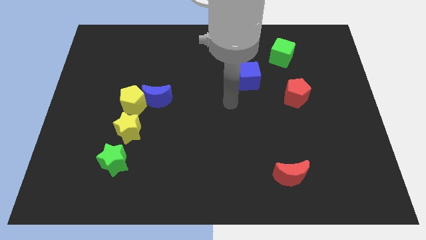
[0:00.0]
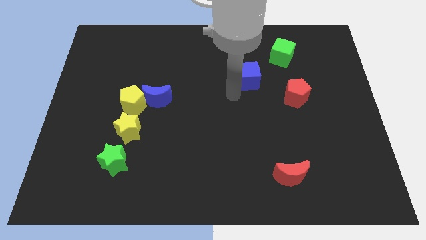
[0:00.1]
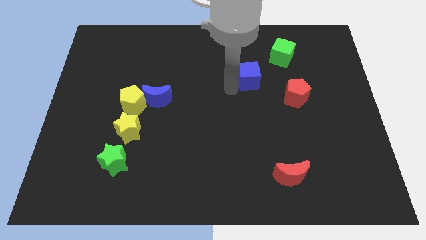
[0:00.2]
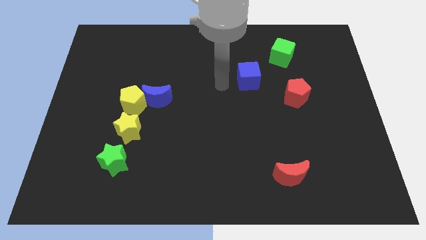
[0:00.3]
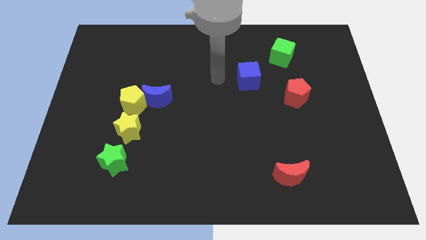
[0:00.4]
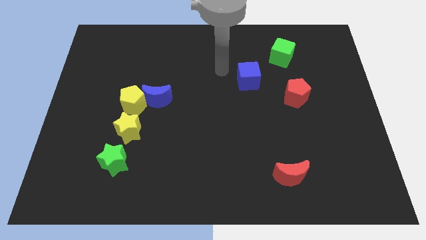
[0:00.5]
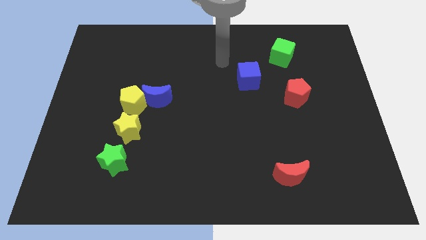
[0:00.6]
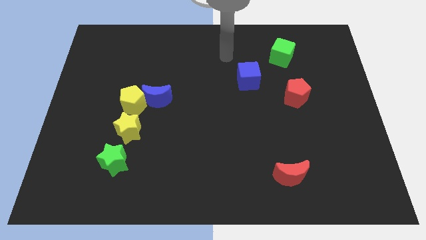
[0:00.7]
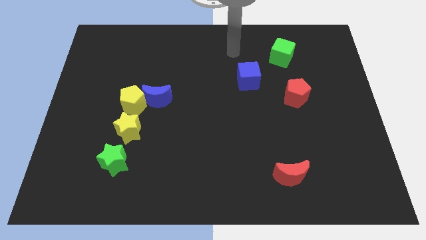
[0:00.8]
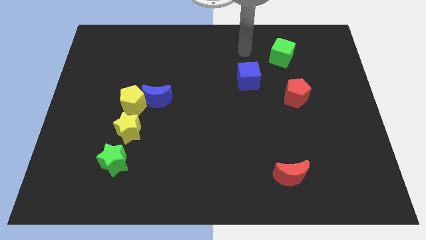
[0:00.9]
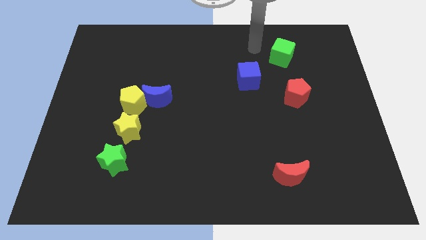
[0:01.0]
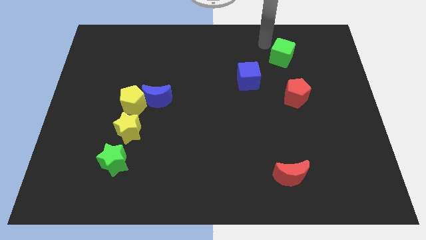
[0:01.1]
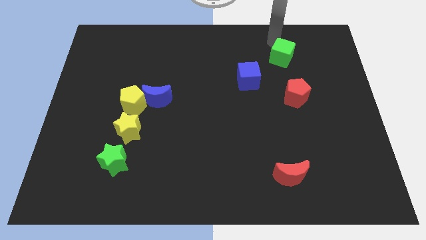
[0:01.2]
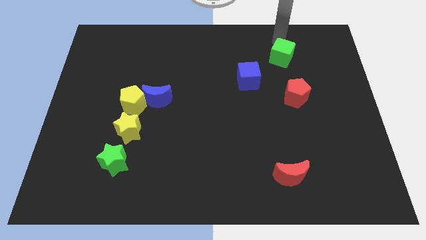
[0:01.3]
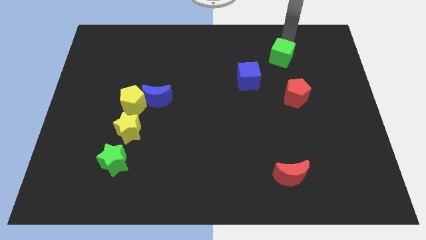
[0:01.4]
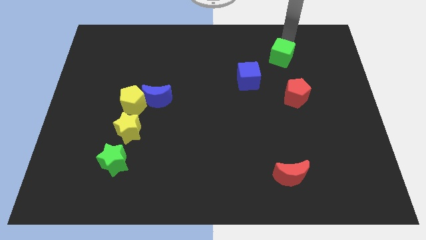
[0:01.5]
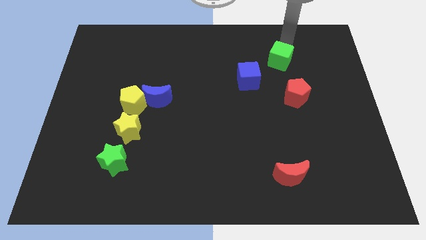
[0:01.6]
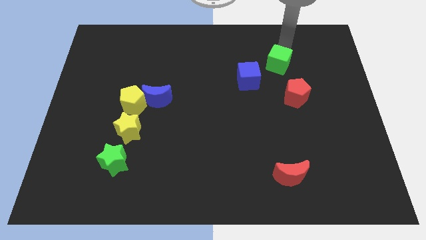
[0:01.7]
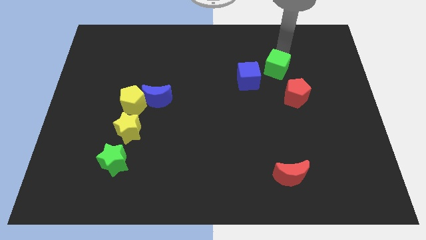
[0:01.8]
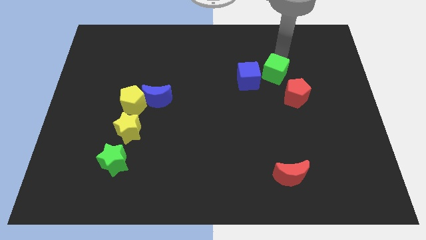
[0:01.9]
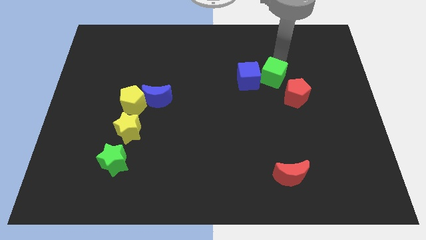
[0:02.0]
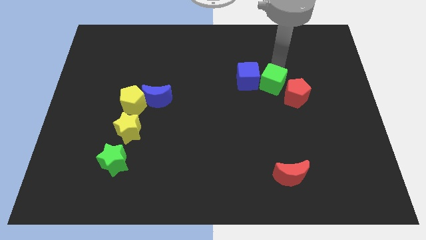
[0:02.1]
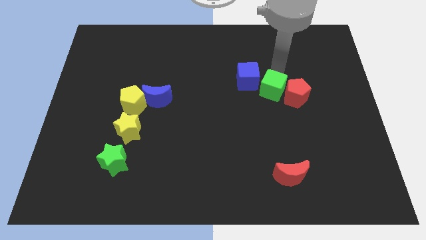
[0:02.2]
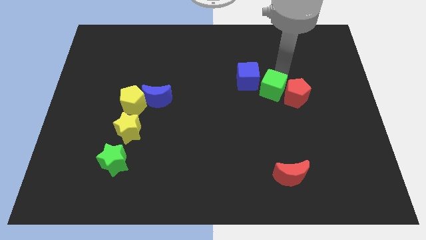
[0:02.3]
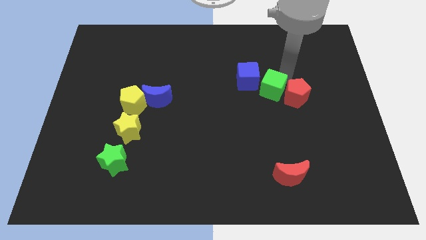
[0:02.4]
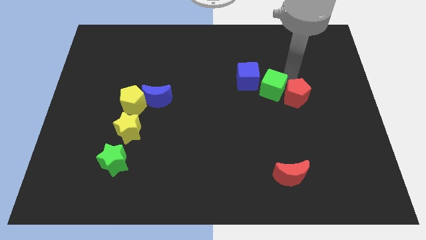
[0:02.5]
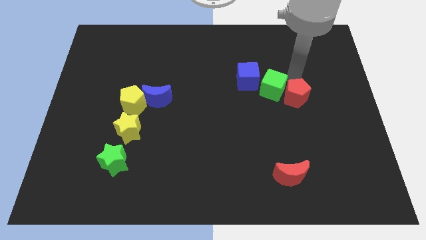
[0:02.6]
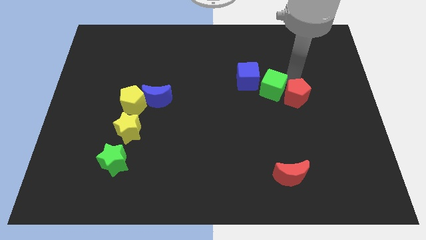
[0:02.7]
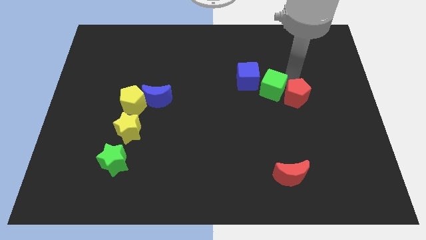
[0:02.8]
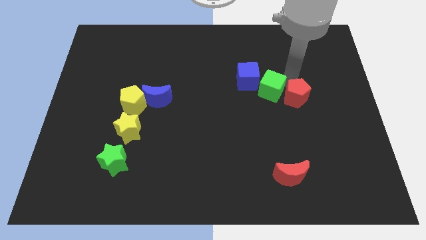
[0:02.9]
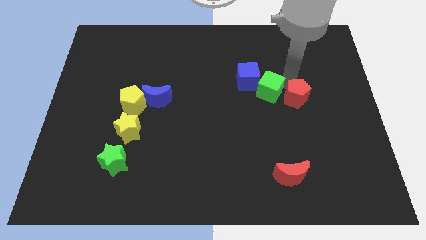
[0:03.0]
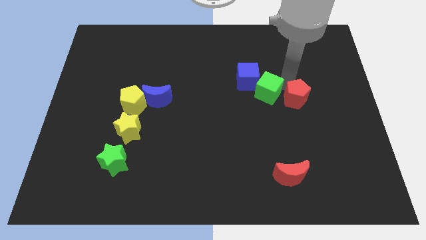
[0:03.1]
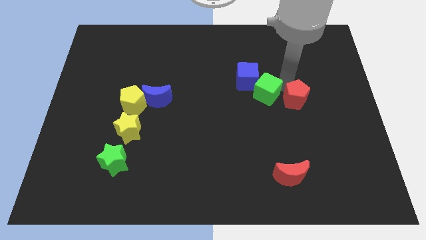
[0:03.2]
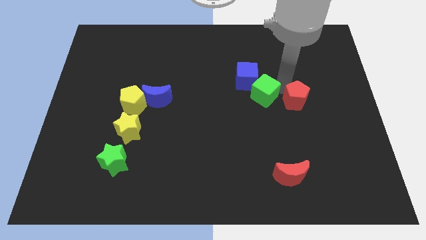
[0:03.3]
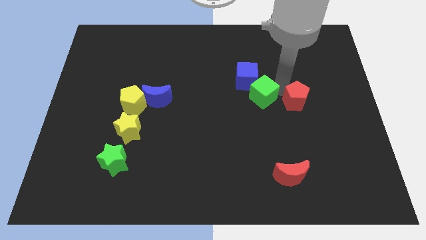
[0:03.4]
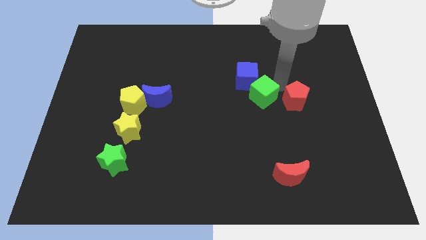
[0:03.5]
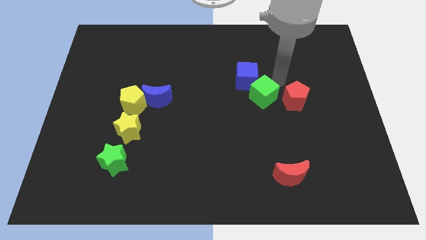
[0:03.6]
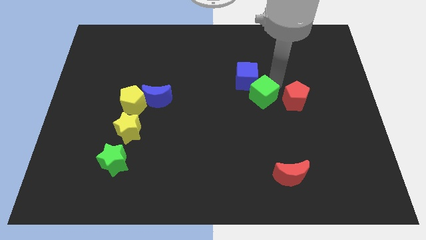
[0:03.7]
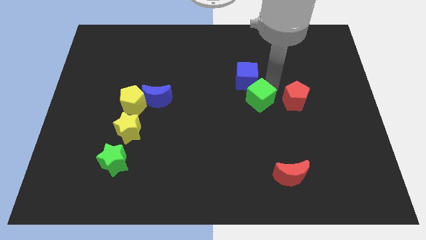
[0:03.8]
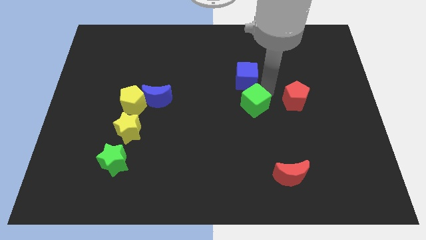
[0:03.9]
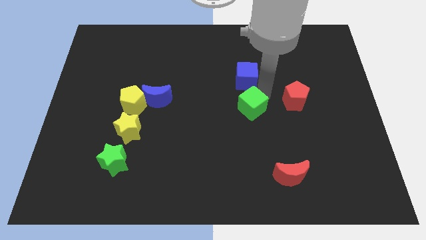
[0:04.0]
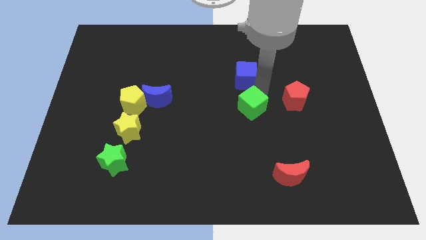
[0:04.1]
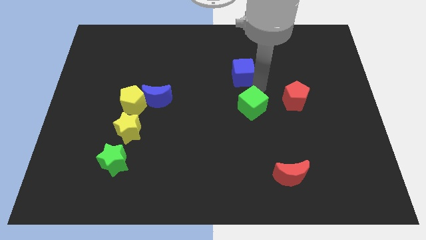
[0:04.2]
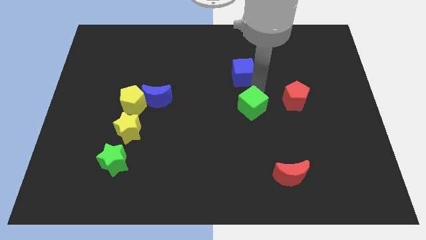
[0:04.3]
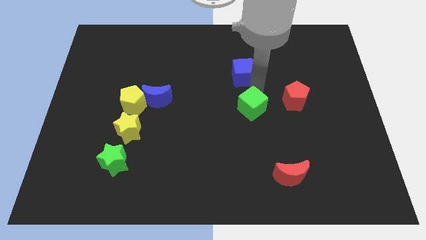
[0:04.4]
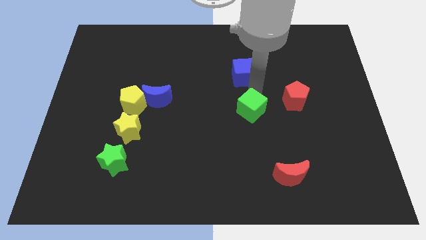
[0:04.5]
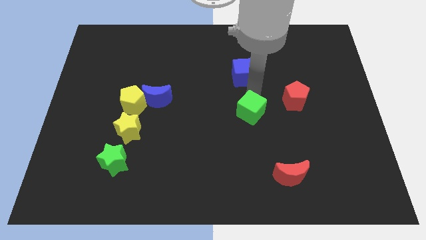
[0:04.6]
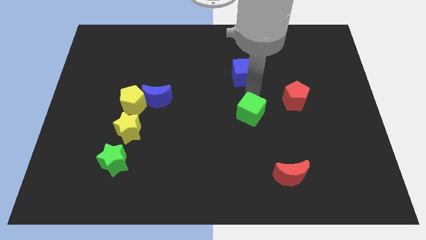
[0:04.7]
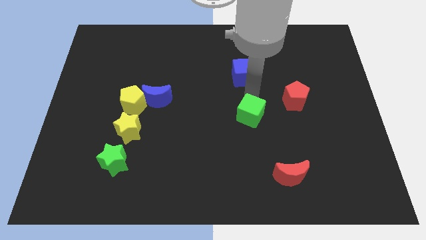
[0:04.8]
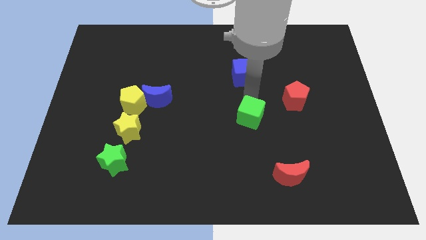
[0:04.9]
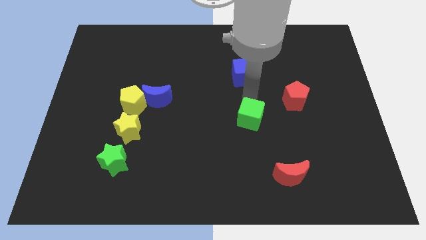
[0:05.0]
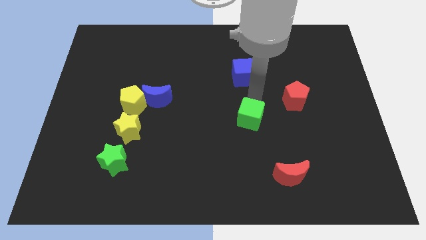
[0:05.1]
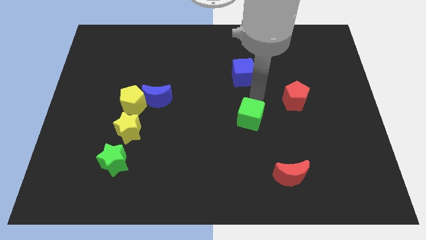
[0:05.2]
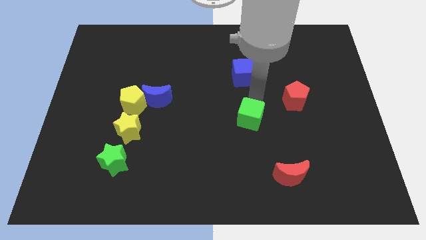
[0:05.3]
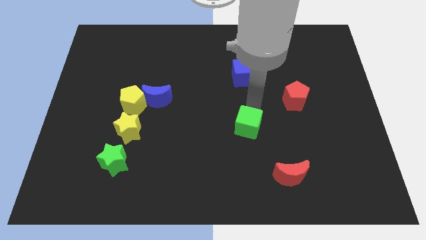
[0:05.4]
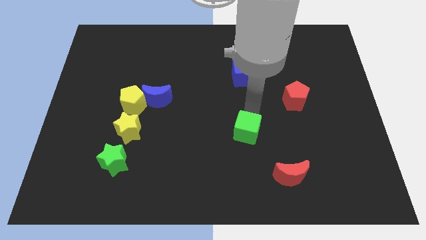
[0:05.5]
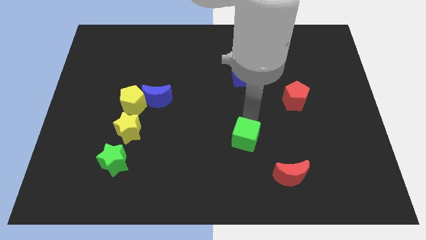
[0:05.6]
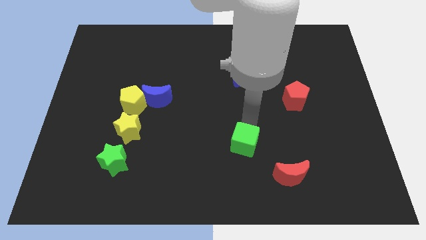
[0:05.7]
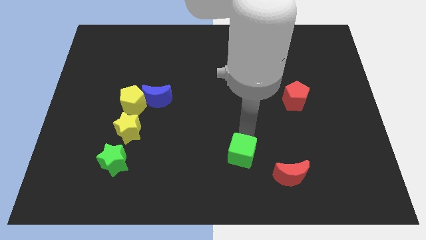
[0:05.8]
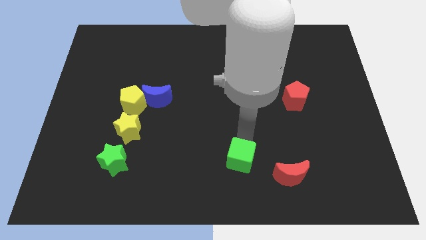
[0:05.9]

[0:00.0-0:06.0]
move the green cube just left of the red moon
